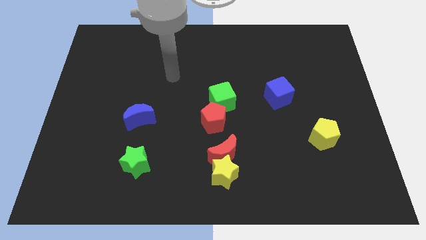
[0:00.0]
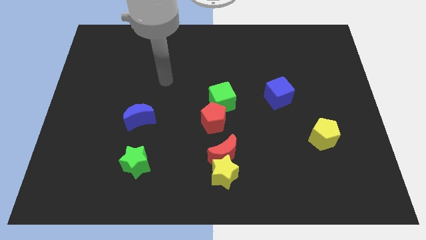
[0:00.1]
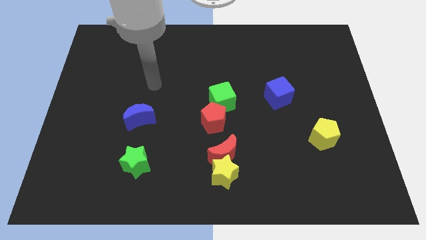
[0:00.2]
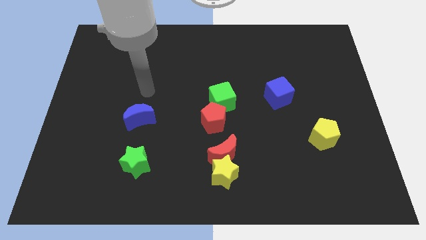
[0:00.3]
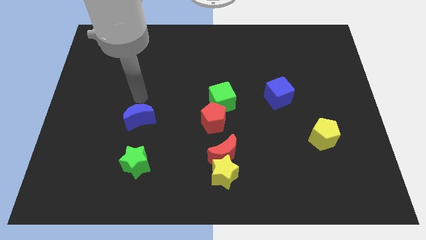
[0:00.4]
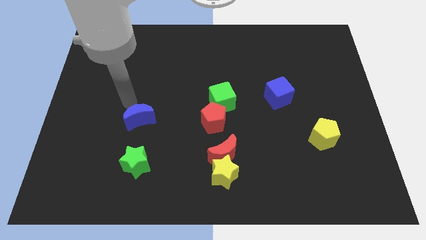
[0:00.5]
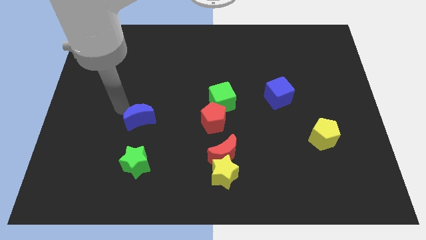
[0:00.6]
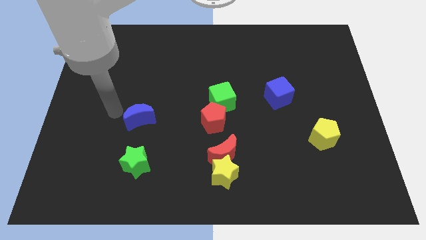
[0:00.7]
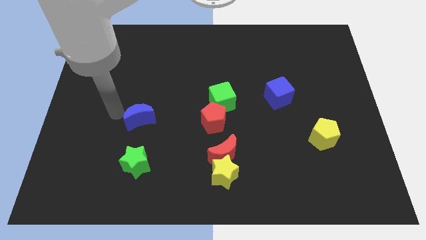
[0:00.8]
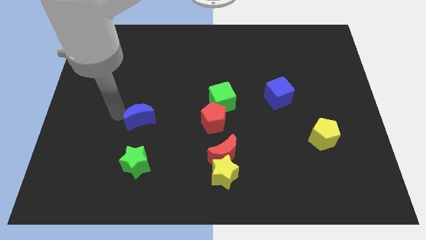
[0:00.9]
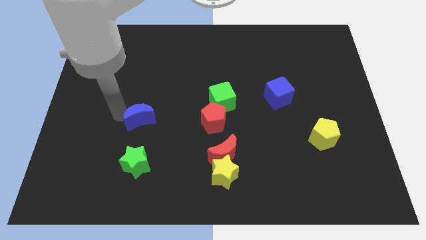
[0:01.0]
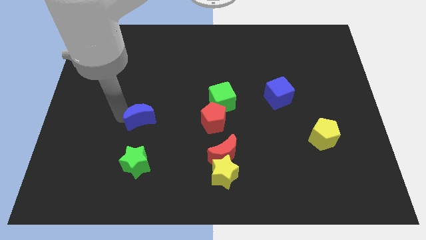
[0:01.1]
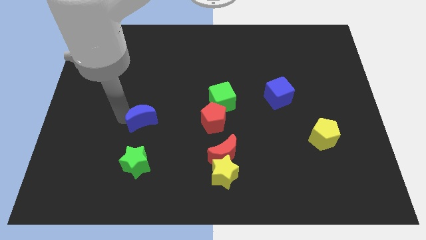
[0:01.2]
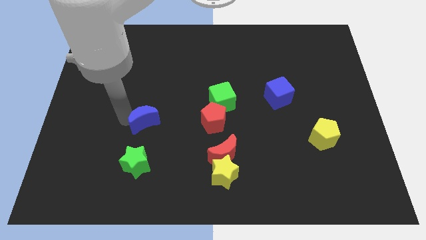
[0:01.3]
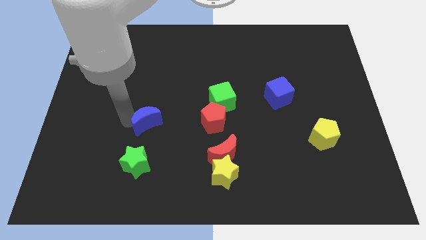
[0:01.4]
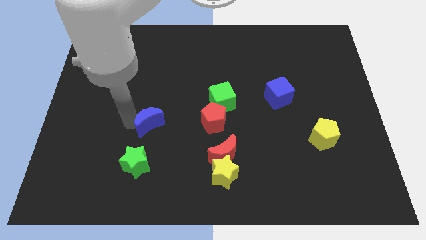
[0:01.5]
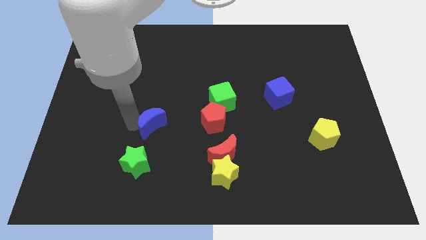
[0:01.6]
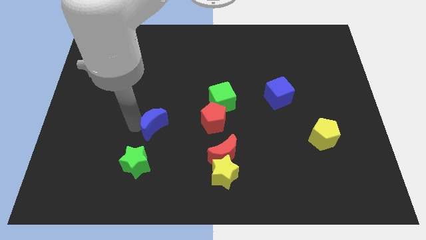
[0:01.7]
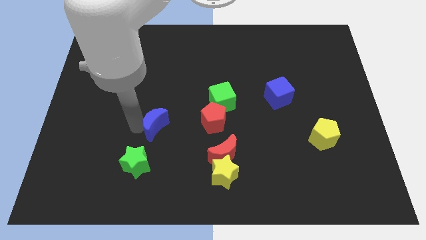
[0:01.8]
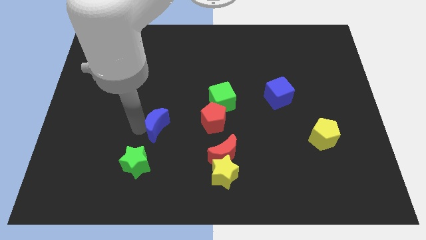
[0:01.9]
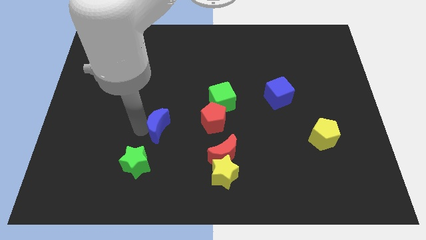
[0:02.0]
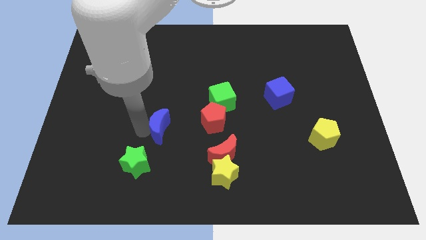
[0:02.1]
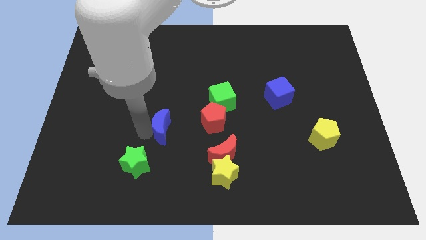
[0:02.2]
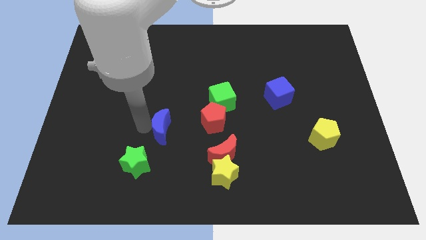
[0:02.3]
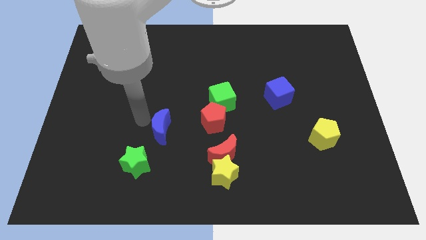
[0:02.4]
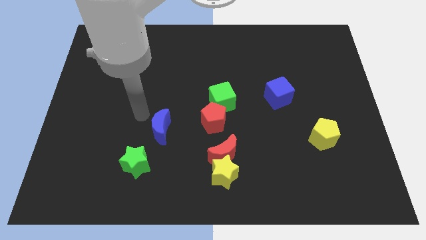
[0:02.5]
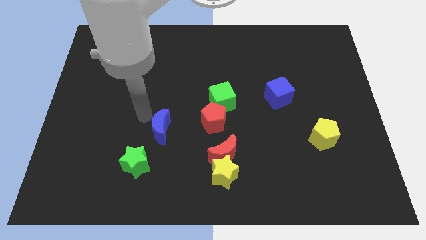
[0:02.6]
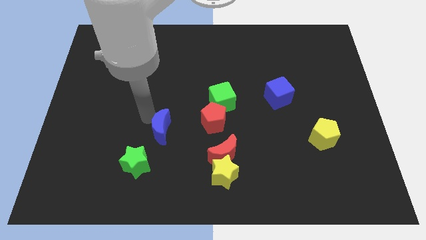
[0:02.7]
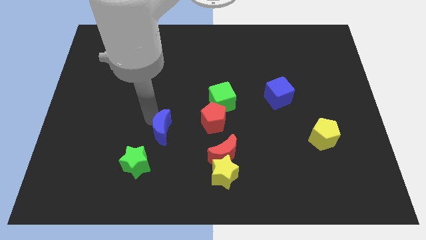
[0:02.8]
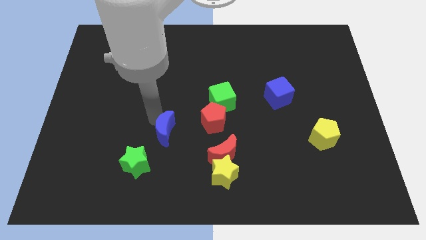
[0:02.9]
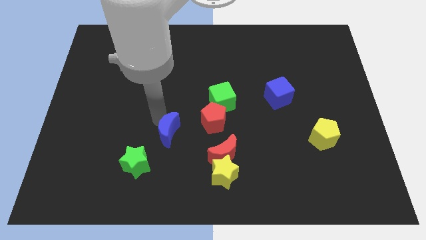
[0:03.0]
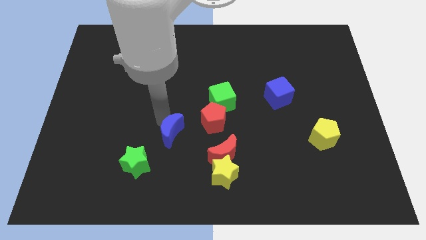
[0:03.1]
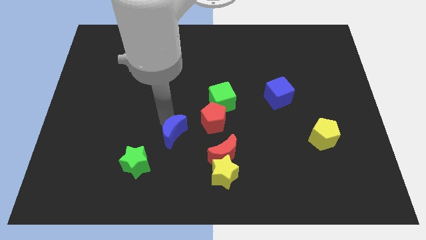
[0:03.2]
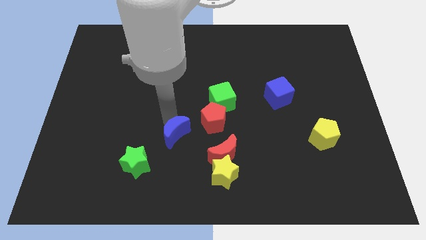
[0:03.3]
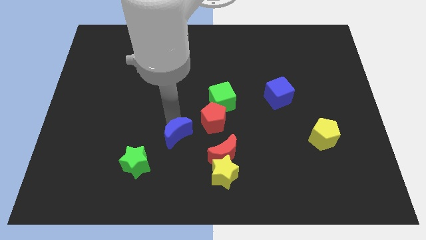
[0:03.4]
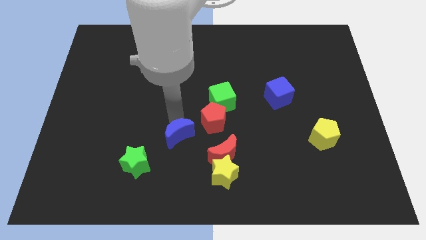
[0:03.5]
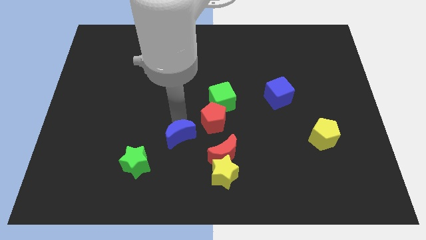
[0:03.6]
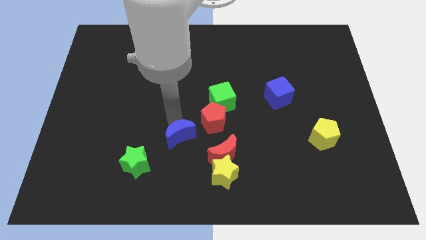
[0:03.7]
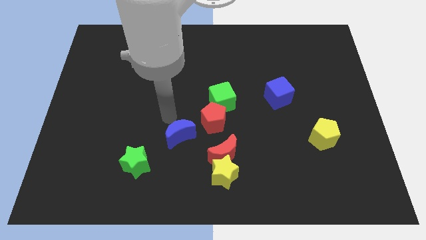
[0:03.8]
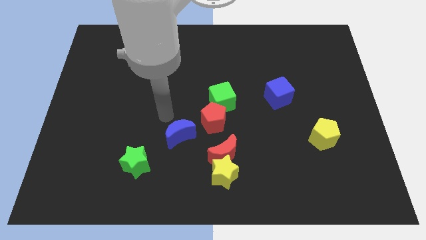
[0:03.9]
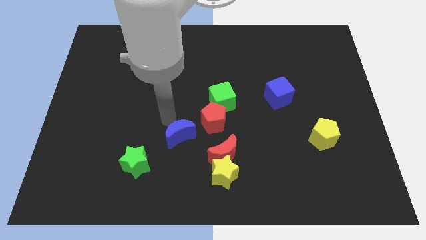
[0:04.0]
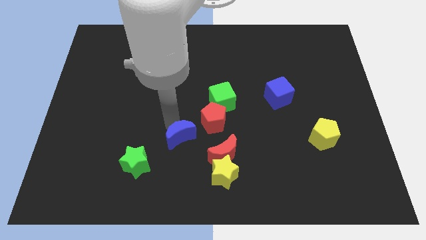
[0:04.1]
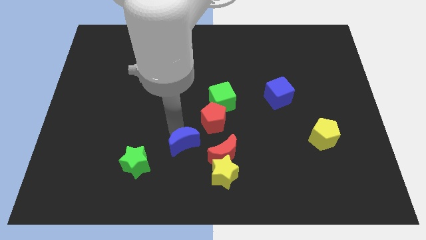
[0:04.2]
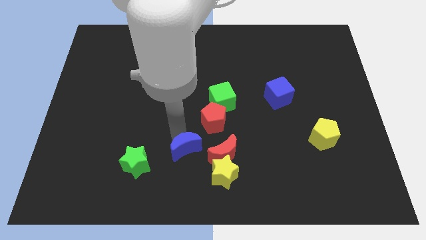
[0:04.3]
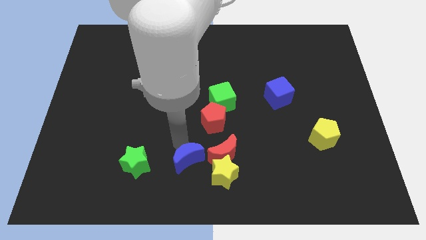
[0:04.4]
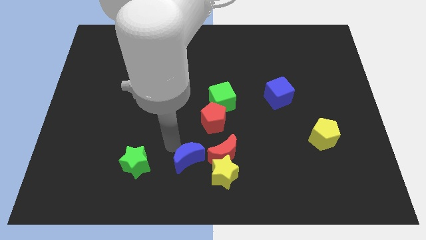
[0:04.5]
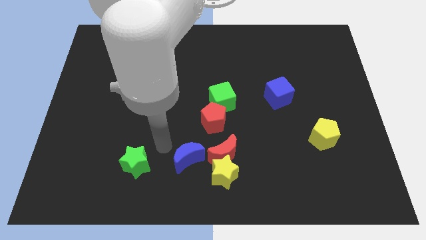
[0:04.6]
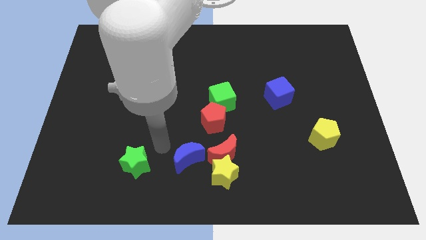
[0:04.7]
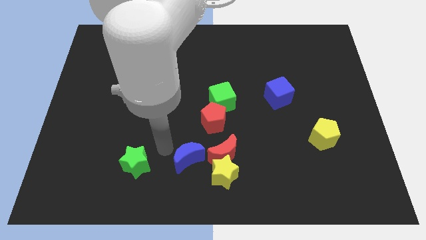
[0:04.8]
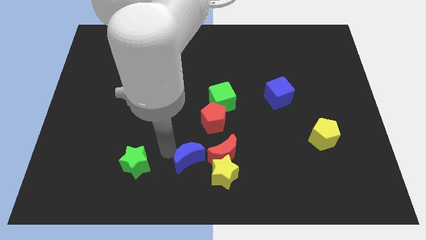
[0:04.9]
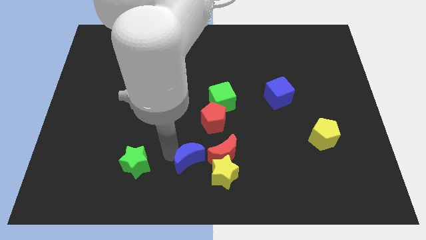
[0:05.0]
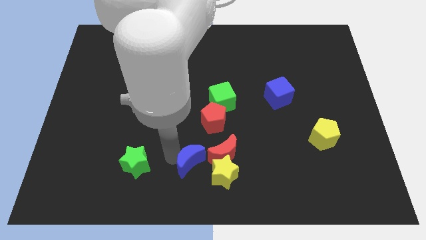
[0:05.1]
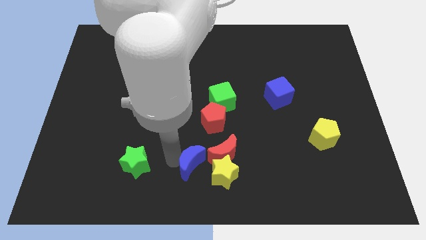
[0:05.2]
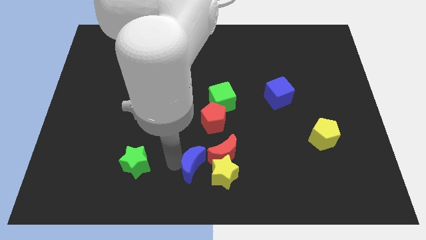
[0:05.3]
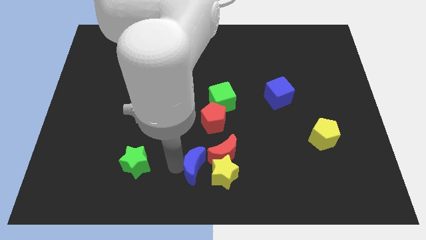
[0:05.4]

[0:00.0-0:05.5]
slide the blue moon next to the yellow star

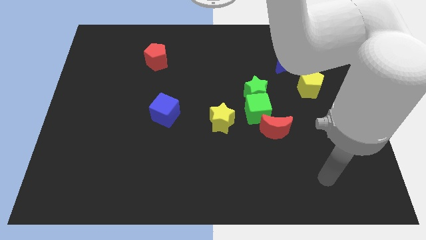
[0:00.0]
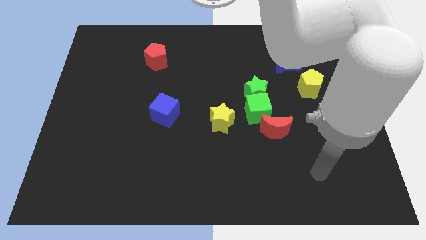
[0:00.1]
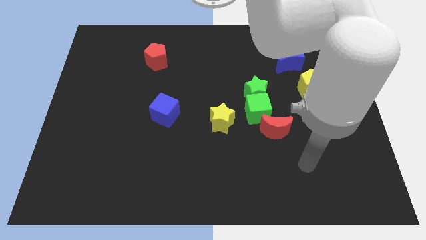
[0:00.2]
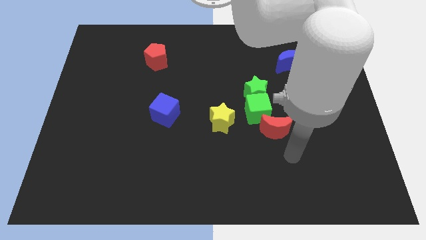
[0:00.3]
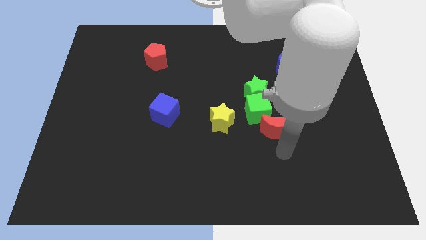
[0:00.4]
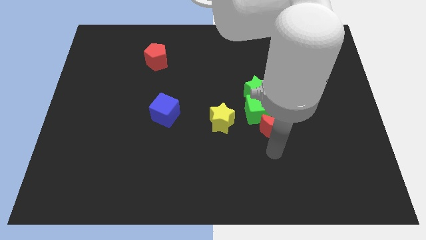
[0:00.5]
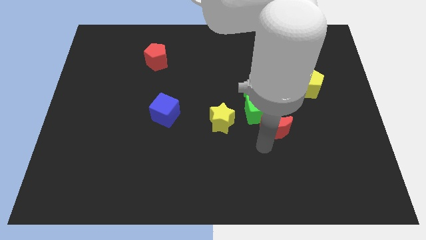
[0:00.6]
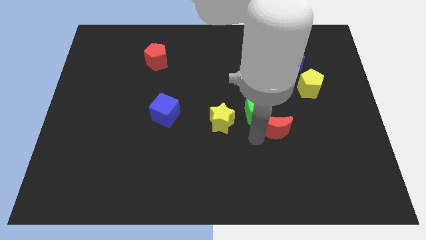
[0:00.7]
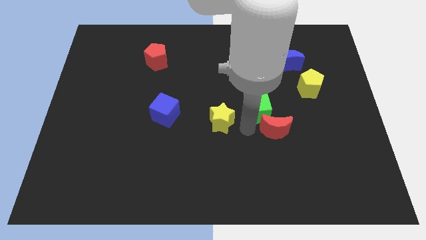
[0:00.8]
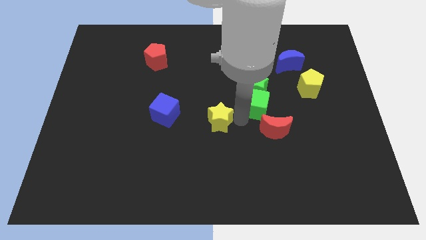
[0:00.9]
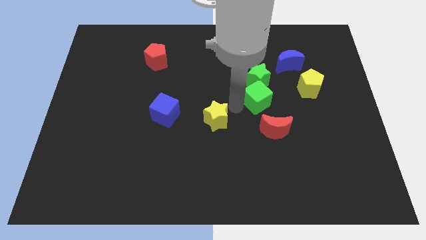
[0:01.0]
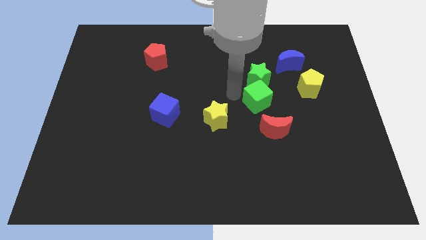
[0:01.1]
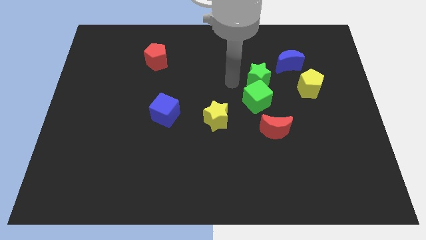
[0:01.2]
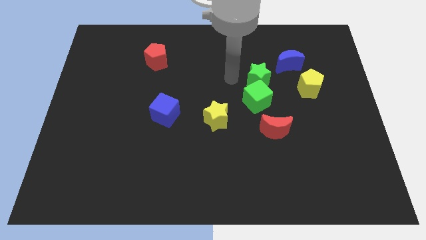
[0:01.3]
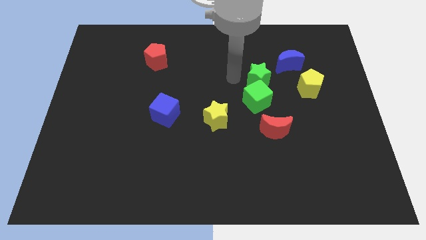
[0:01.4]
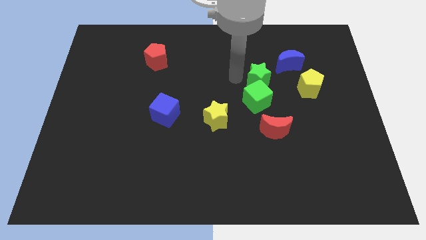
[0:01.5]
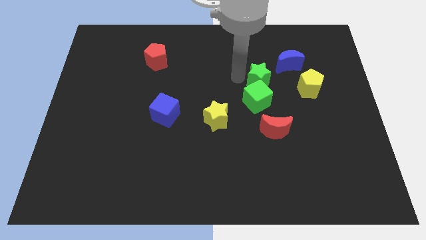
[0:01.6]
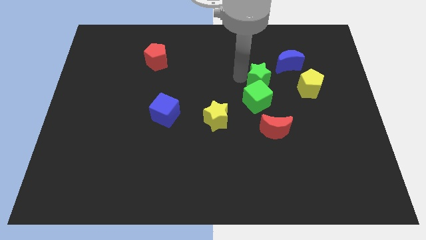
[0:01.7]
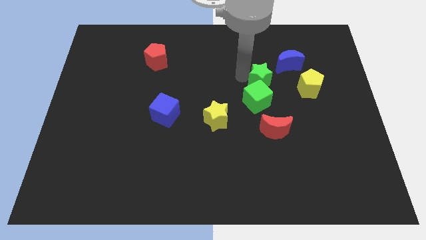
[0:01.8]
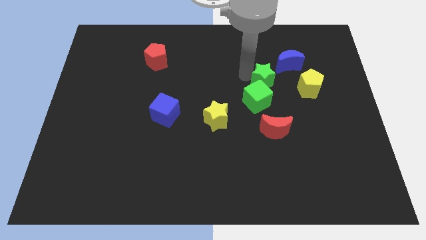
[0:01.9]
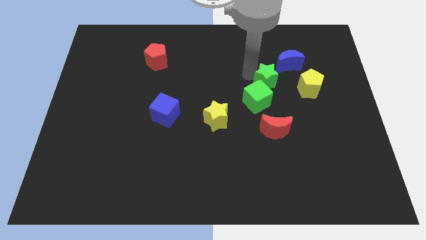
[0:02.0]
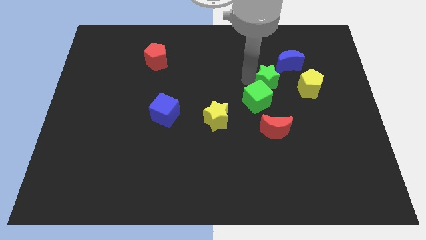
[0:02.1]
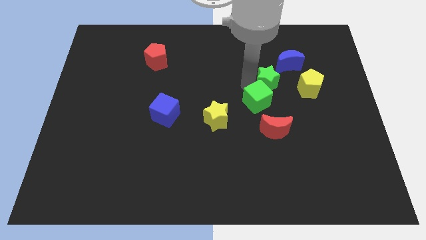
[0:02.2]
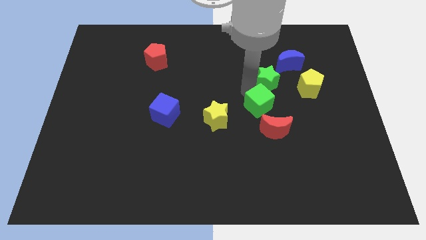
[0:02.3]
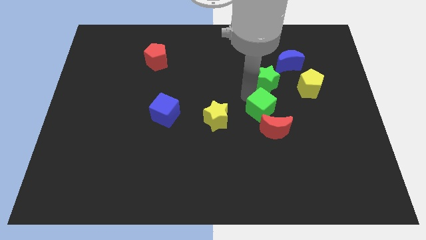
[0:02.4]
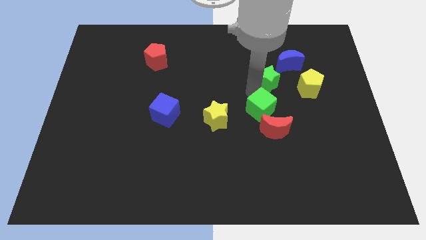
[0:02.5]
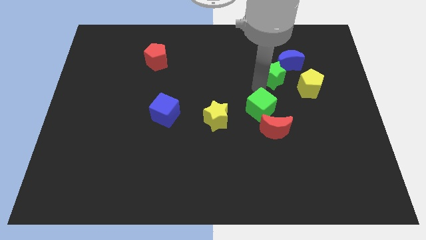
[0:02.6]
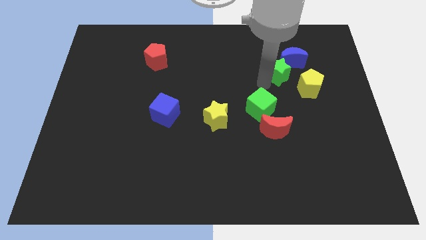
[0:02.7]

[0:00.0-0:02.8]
slide the green star towards the blue moon
